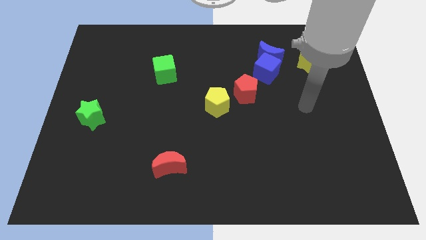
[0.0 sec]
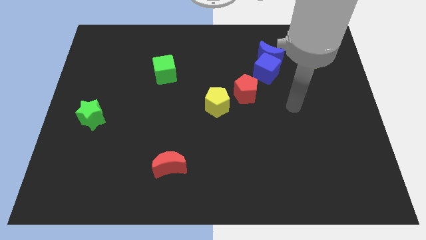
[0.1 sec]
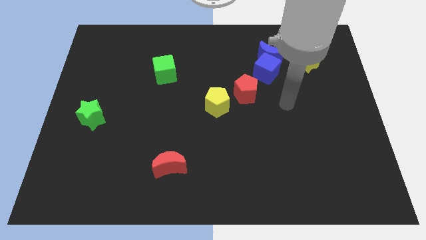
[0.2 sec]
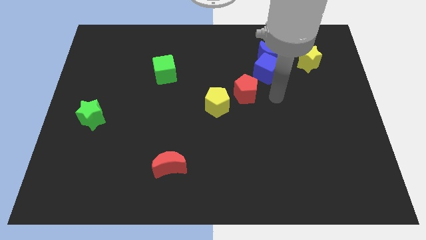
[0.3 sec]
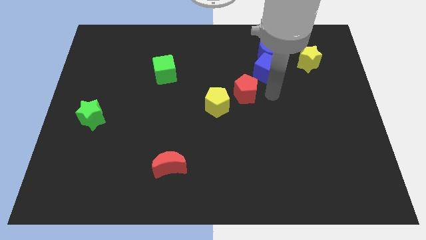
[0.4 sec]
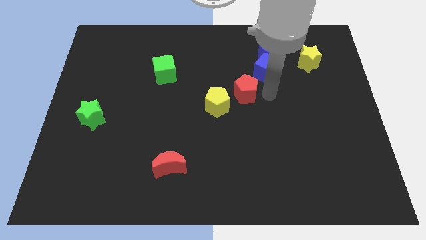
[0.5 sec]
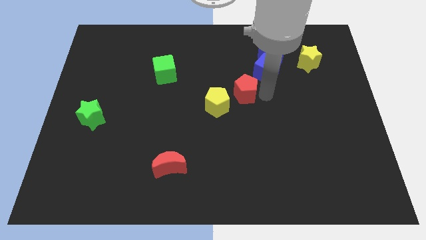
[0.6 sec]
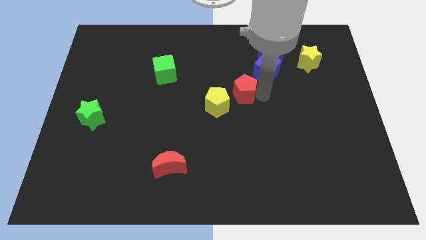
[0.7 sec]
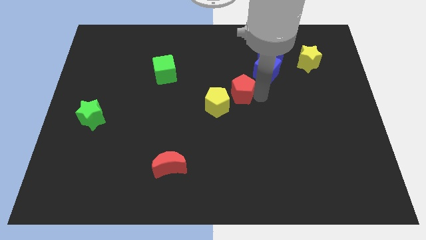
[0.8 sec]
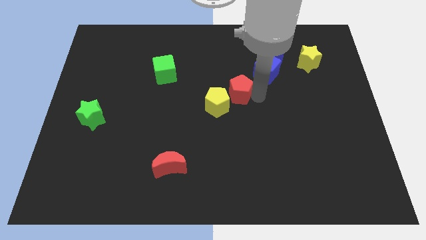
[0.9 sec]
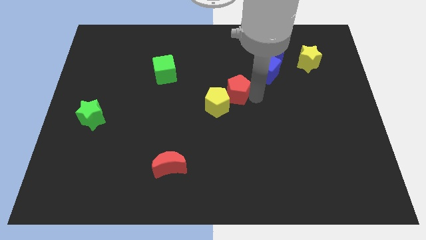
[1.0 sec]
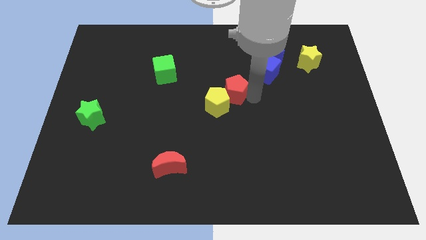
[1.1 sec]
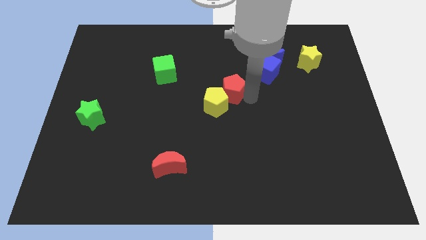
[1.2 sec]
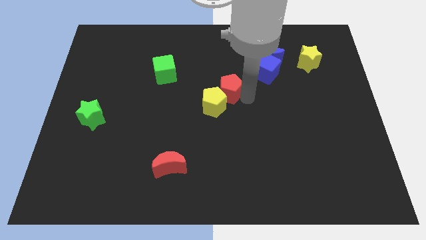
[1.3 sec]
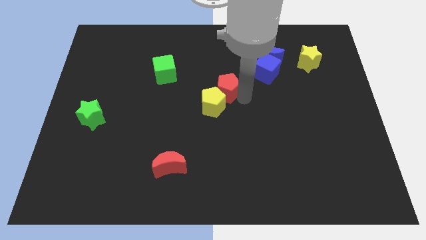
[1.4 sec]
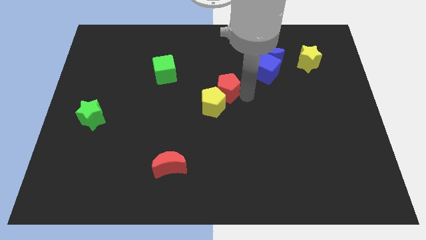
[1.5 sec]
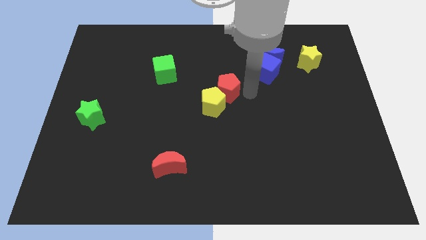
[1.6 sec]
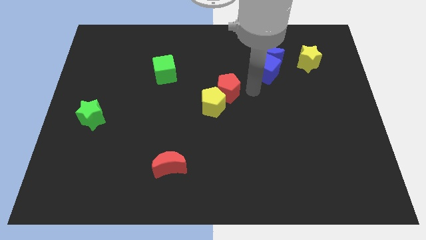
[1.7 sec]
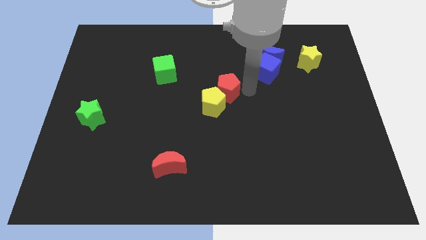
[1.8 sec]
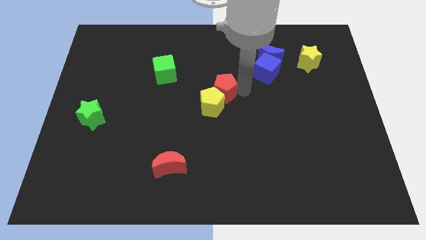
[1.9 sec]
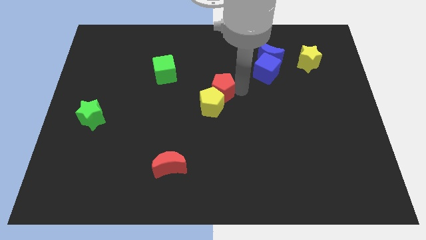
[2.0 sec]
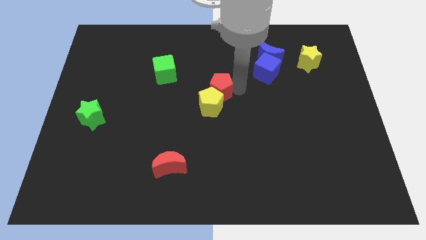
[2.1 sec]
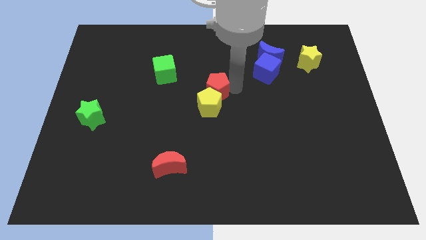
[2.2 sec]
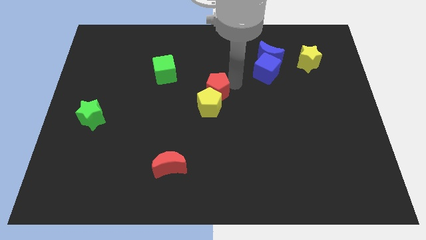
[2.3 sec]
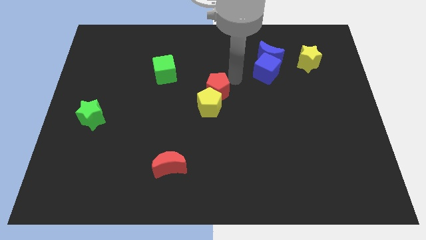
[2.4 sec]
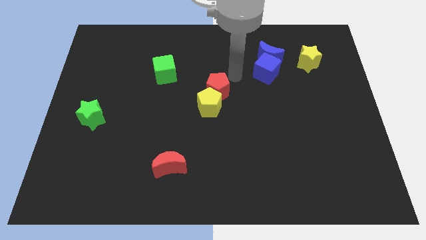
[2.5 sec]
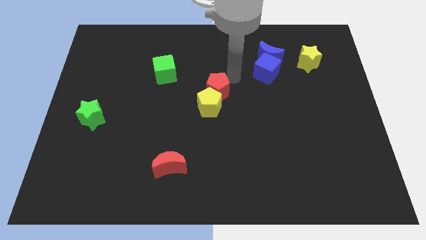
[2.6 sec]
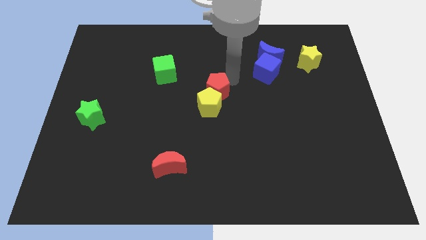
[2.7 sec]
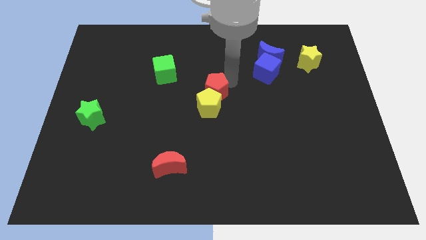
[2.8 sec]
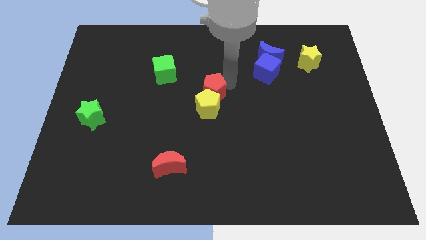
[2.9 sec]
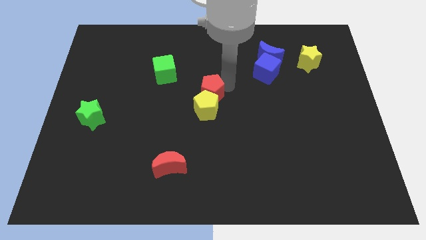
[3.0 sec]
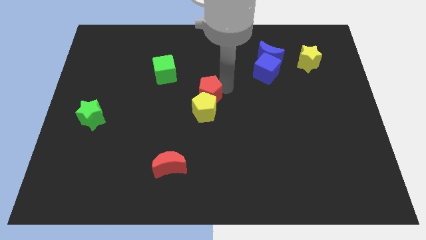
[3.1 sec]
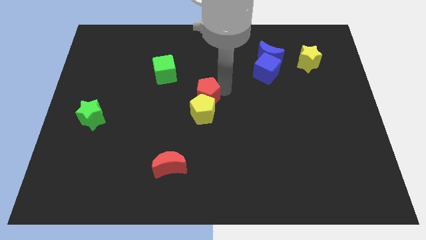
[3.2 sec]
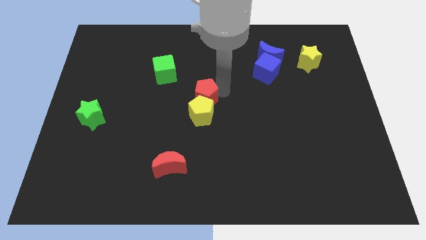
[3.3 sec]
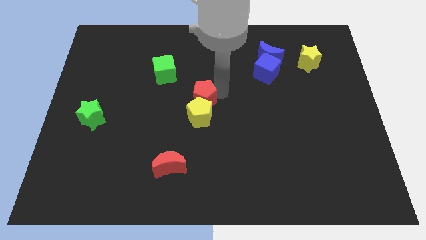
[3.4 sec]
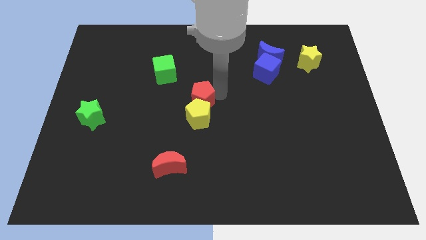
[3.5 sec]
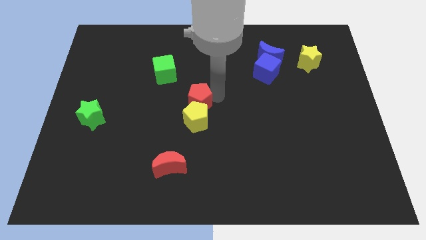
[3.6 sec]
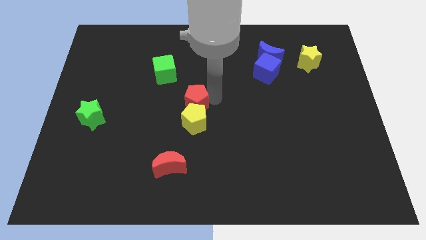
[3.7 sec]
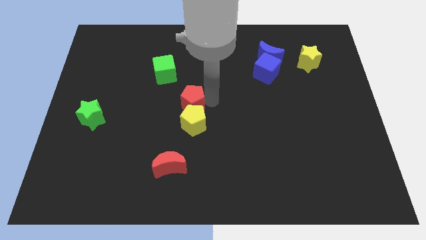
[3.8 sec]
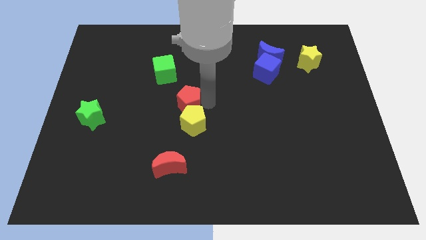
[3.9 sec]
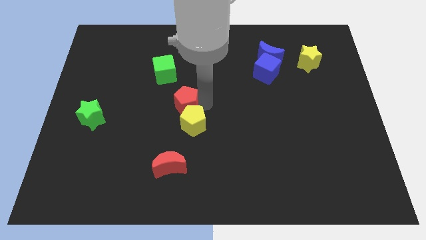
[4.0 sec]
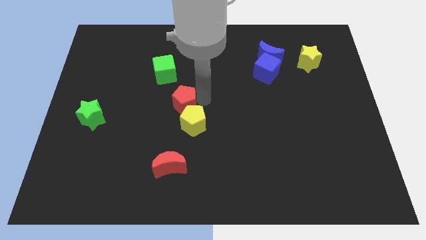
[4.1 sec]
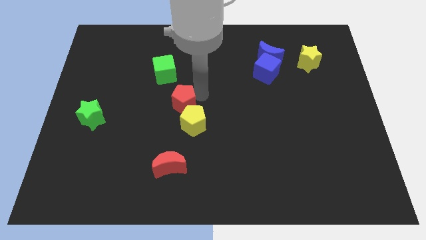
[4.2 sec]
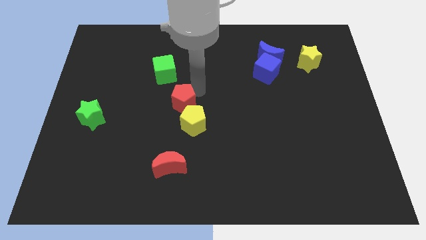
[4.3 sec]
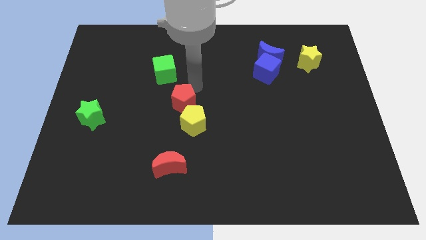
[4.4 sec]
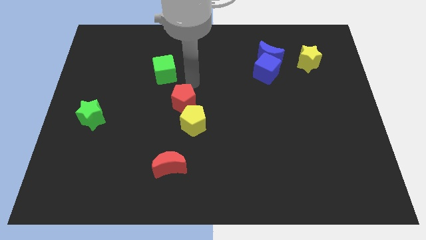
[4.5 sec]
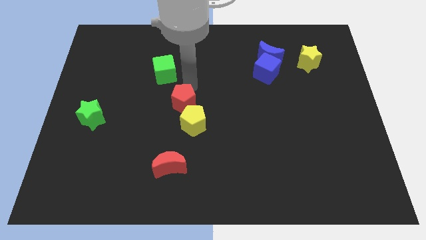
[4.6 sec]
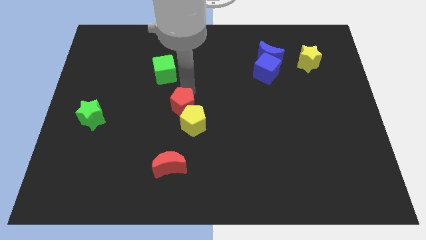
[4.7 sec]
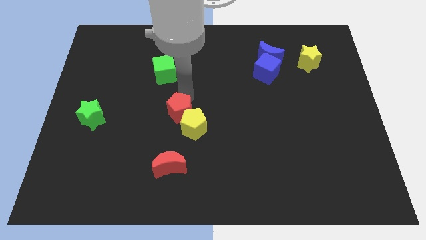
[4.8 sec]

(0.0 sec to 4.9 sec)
move the red pentagon to the top of the red moon

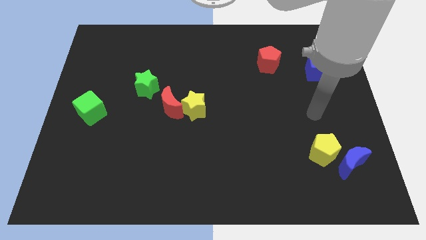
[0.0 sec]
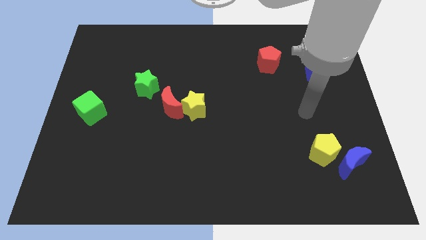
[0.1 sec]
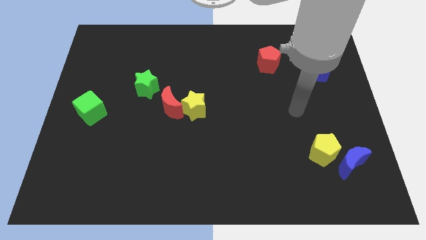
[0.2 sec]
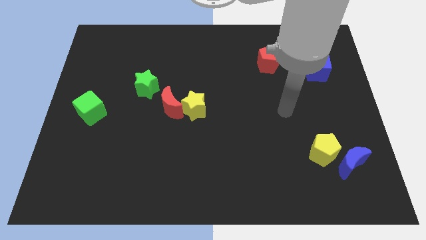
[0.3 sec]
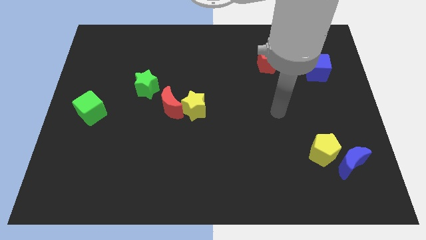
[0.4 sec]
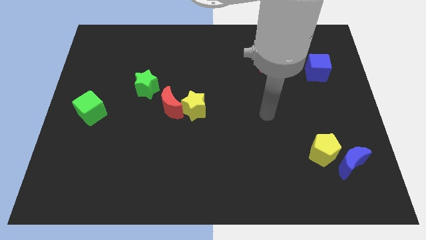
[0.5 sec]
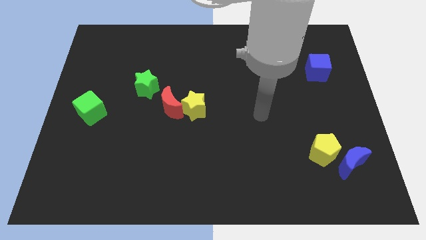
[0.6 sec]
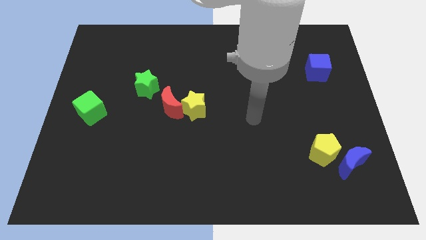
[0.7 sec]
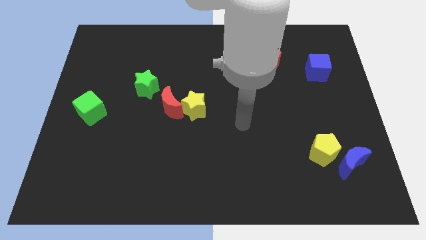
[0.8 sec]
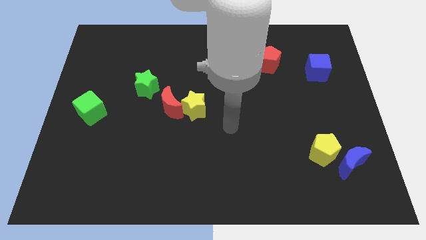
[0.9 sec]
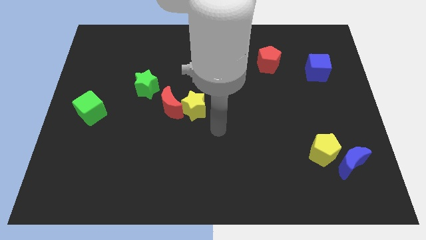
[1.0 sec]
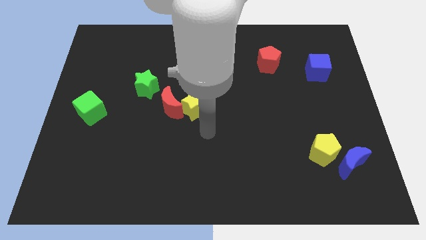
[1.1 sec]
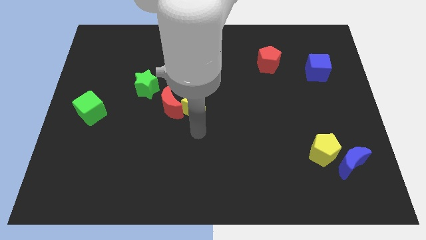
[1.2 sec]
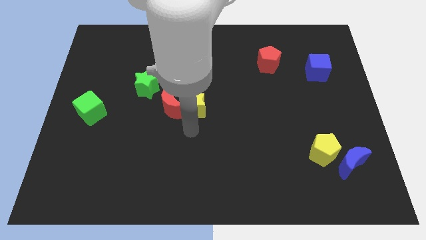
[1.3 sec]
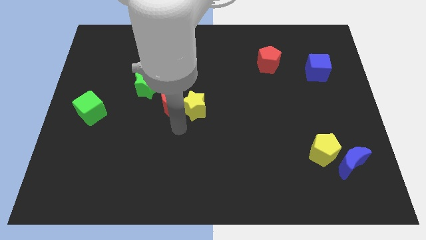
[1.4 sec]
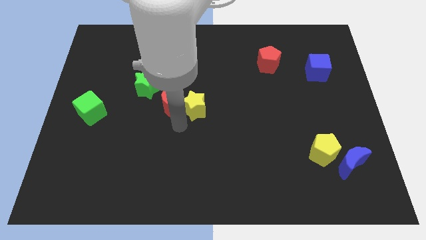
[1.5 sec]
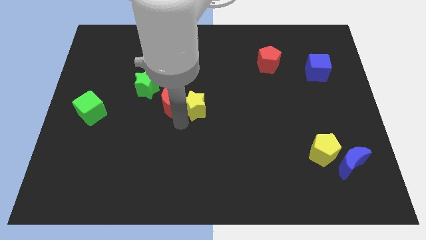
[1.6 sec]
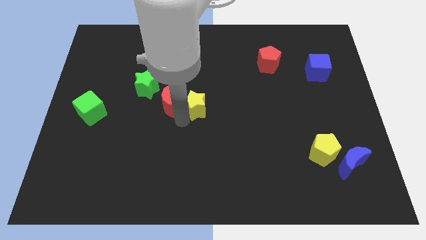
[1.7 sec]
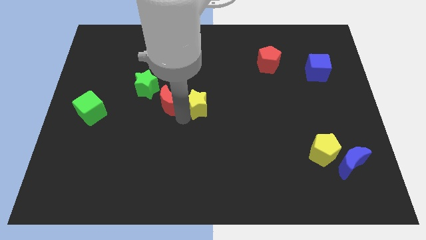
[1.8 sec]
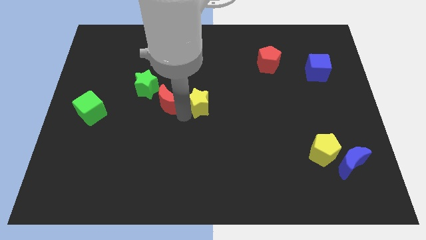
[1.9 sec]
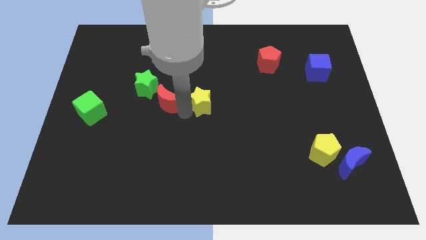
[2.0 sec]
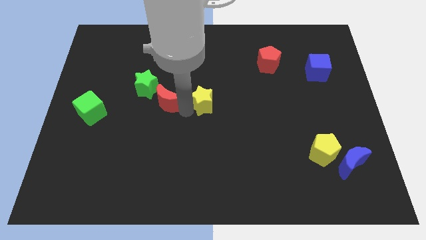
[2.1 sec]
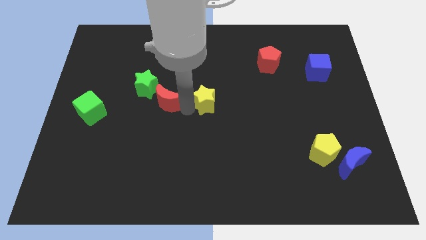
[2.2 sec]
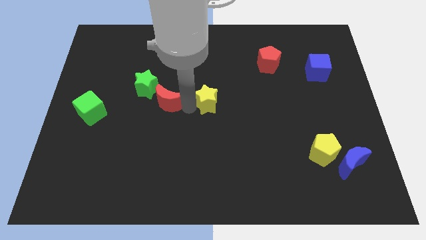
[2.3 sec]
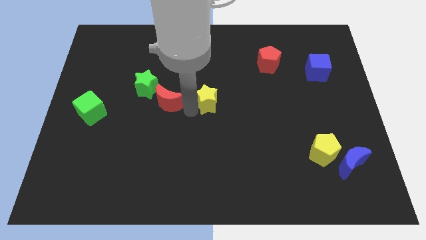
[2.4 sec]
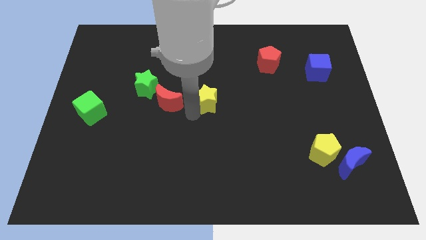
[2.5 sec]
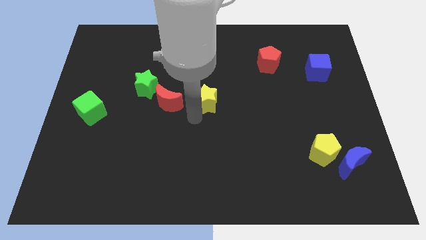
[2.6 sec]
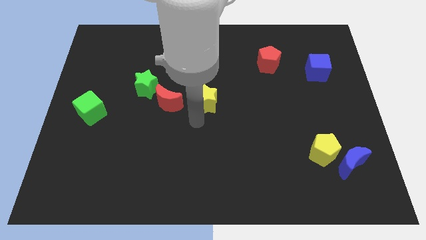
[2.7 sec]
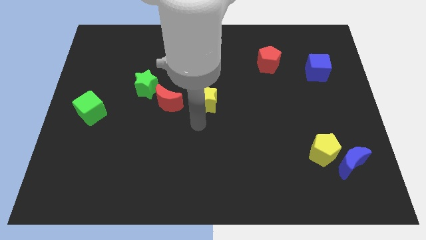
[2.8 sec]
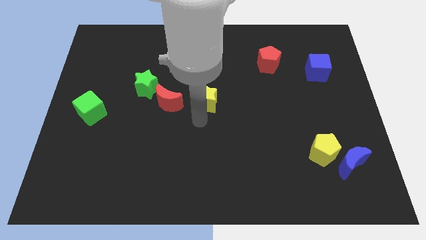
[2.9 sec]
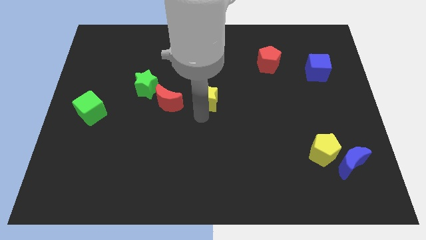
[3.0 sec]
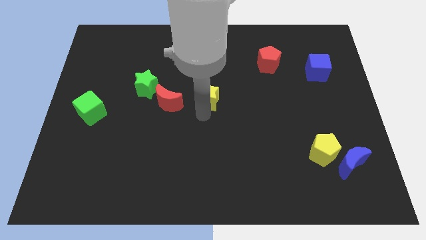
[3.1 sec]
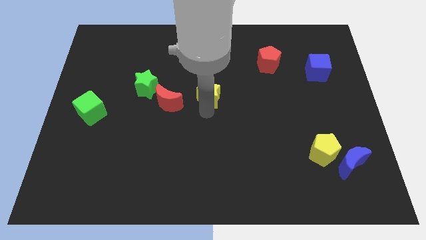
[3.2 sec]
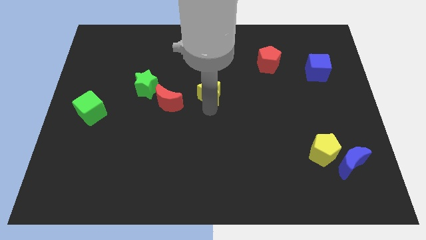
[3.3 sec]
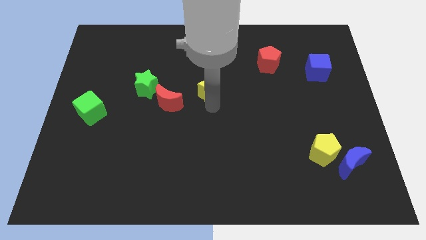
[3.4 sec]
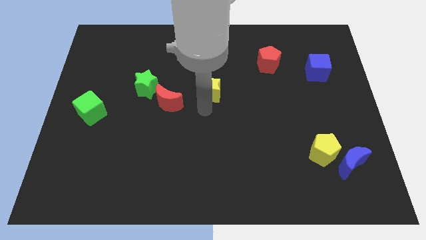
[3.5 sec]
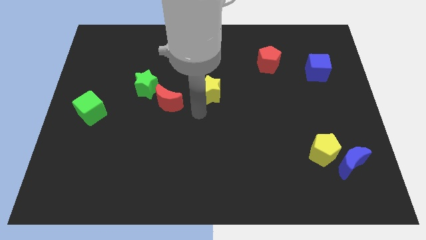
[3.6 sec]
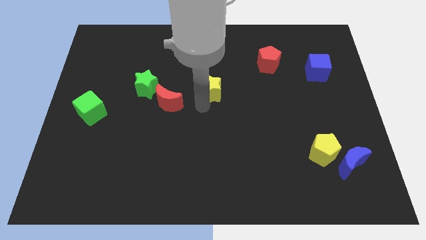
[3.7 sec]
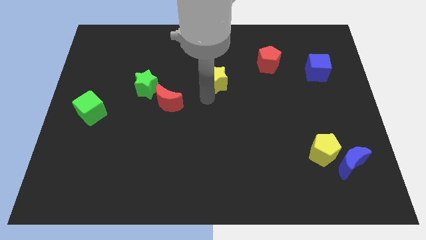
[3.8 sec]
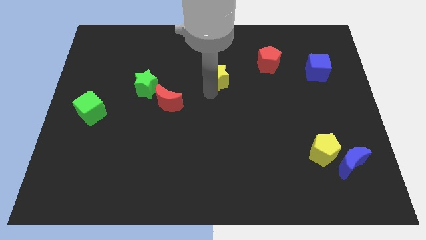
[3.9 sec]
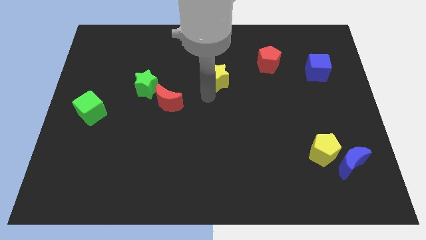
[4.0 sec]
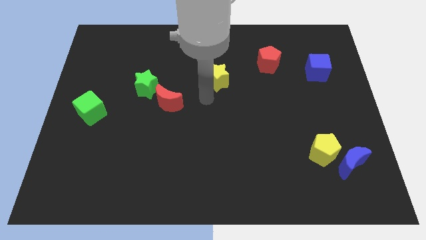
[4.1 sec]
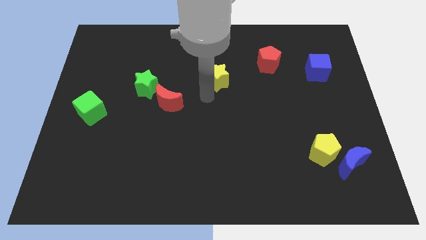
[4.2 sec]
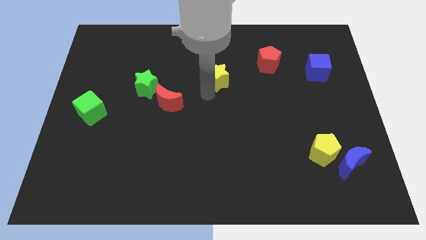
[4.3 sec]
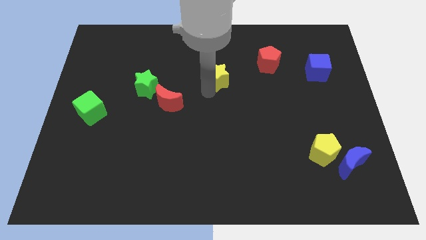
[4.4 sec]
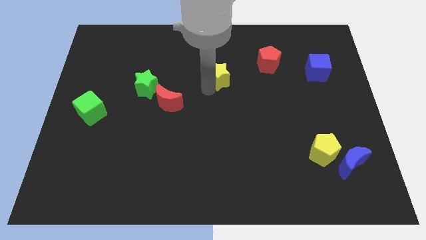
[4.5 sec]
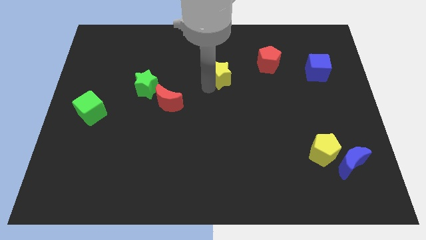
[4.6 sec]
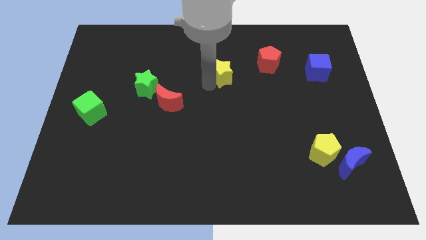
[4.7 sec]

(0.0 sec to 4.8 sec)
slide the yellow star to the left of the red pentagon
